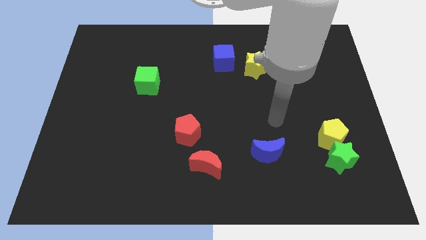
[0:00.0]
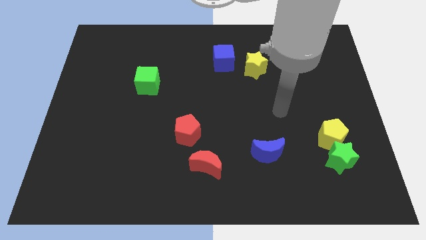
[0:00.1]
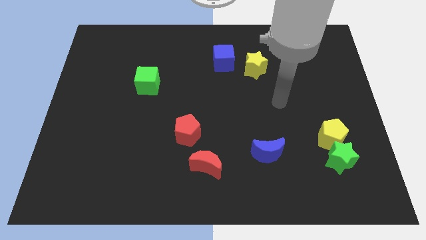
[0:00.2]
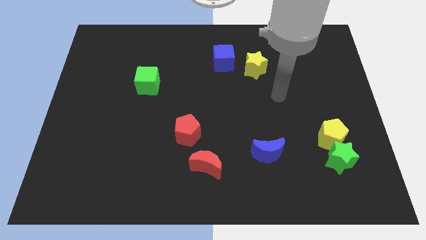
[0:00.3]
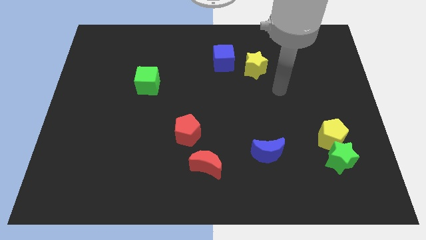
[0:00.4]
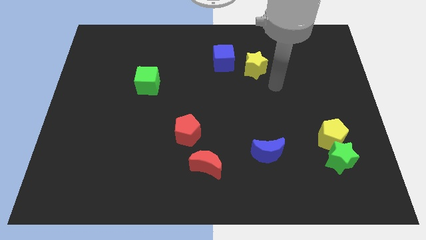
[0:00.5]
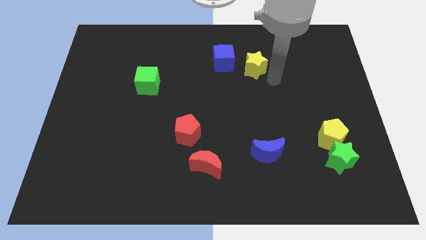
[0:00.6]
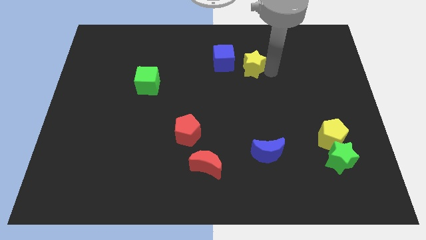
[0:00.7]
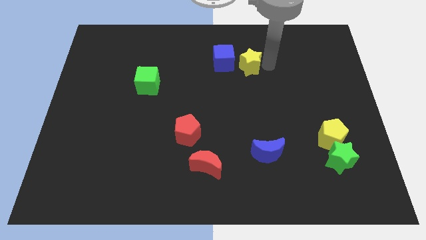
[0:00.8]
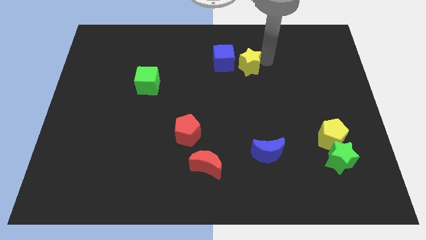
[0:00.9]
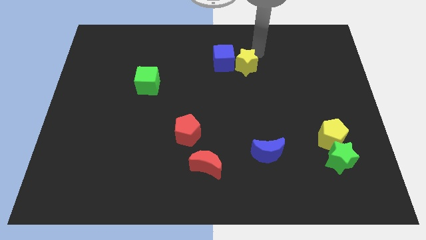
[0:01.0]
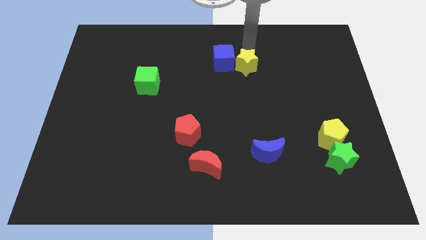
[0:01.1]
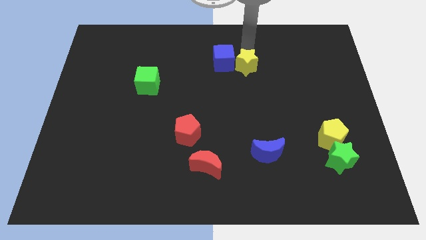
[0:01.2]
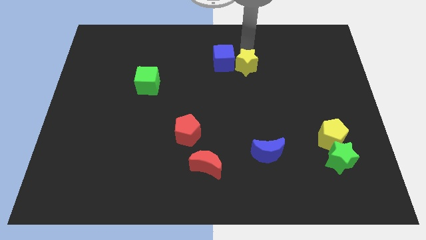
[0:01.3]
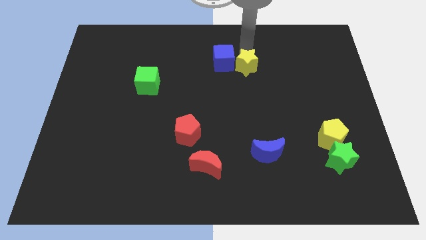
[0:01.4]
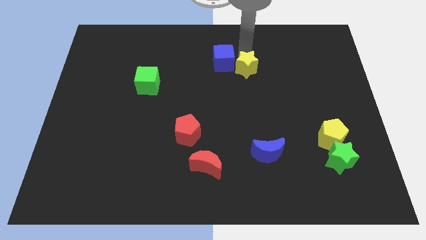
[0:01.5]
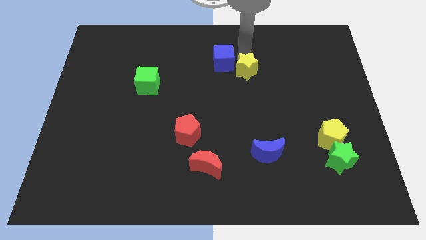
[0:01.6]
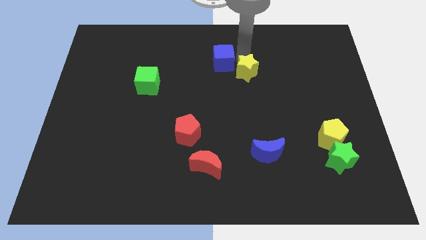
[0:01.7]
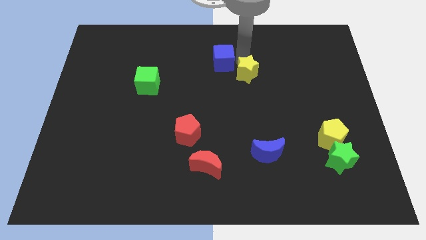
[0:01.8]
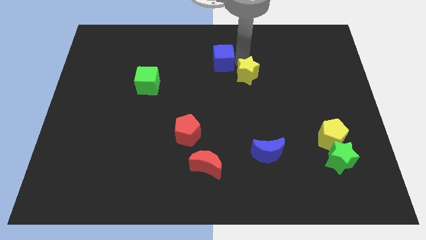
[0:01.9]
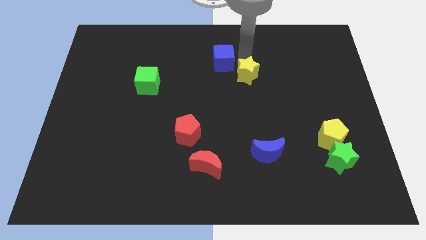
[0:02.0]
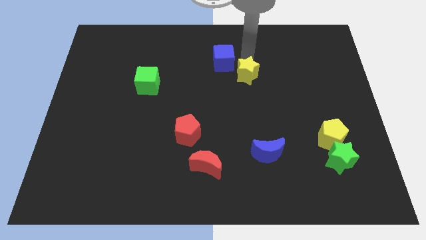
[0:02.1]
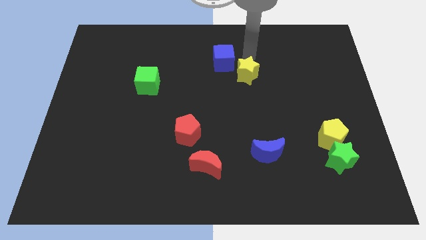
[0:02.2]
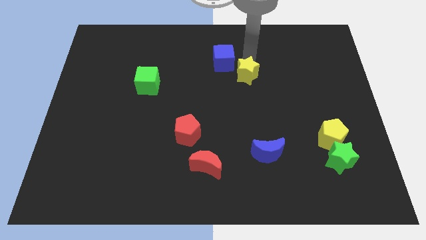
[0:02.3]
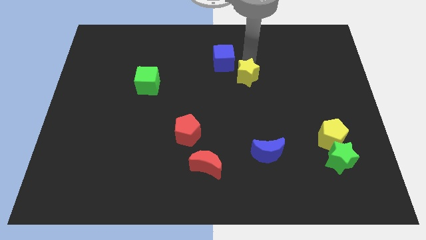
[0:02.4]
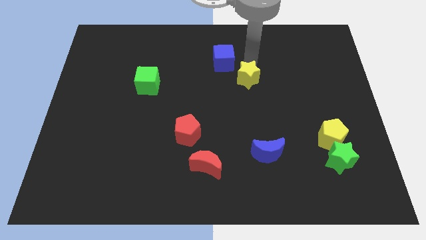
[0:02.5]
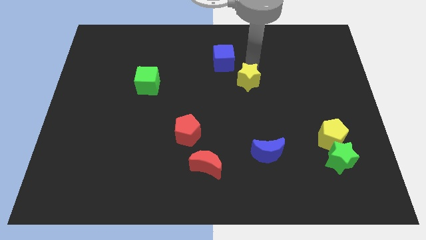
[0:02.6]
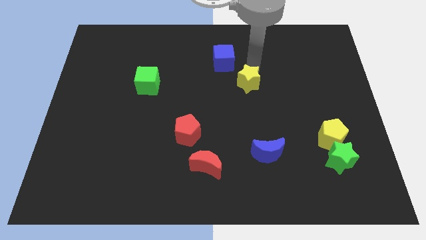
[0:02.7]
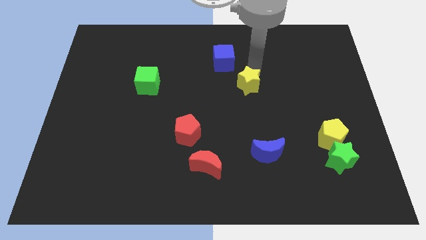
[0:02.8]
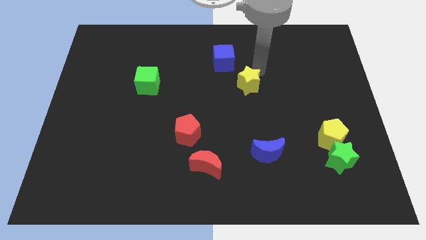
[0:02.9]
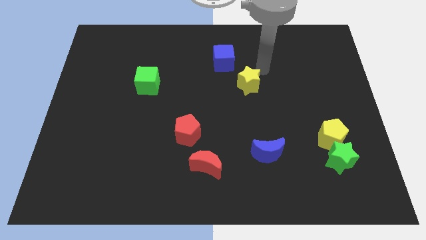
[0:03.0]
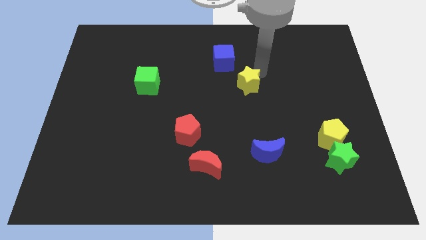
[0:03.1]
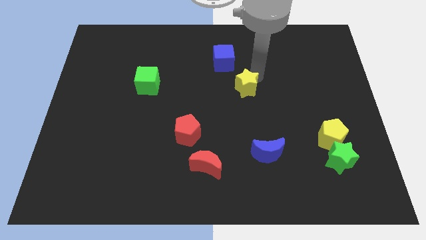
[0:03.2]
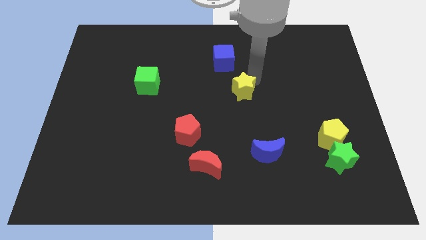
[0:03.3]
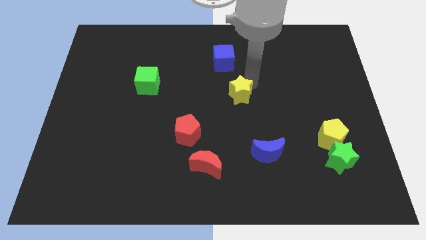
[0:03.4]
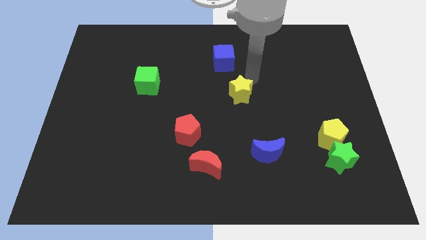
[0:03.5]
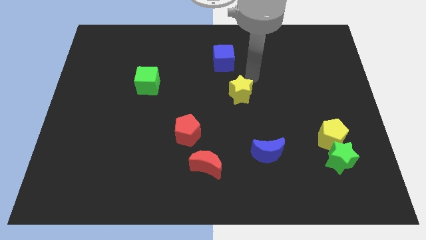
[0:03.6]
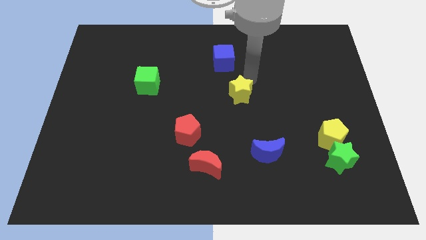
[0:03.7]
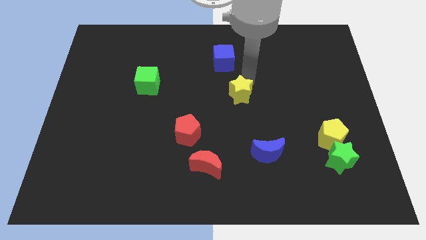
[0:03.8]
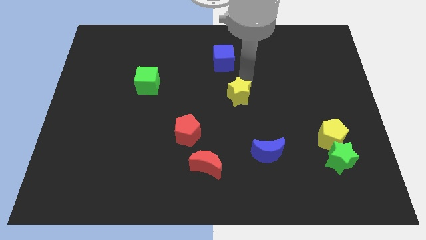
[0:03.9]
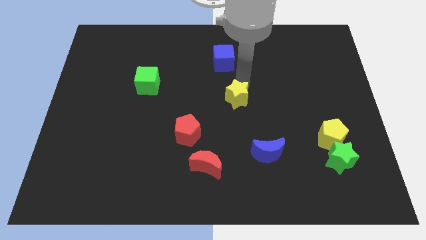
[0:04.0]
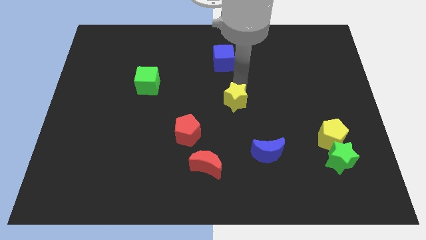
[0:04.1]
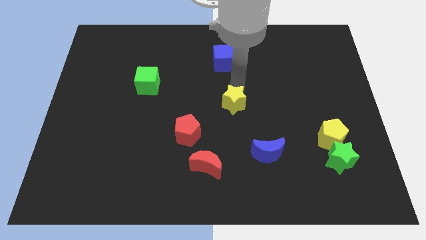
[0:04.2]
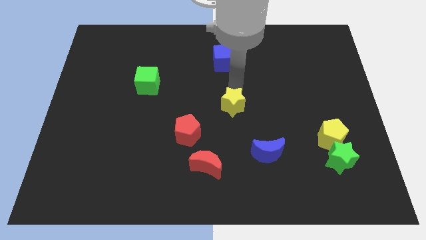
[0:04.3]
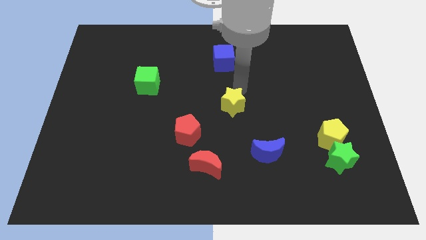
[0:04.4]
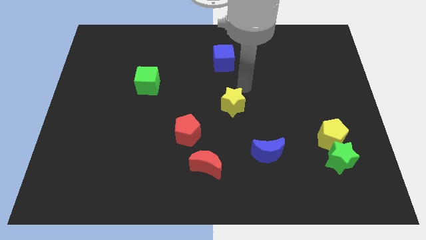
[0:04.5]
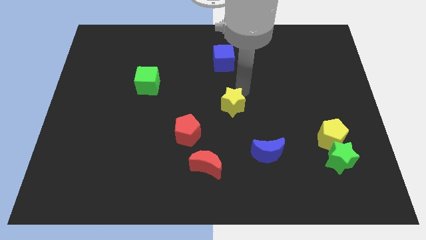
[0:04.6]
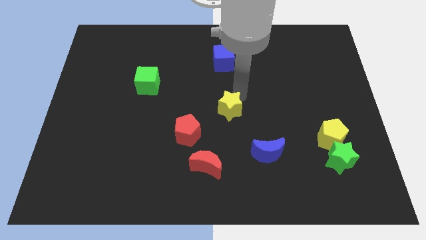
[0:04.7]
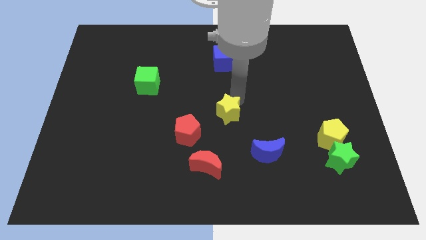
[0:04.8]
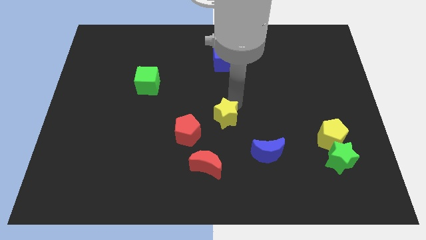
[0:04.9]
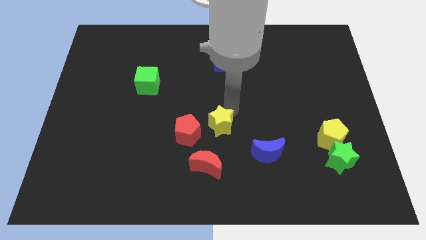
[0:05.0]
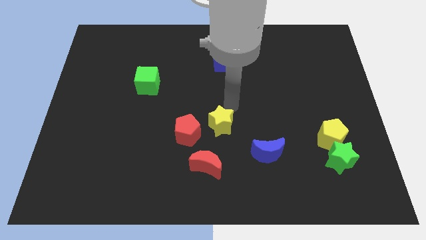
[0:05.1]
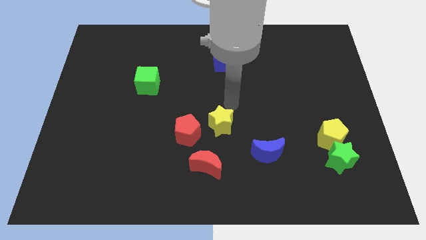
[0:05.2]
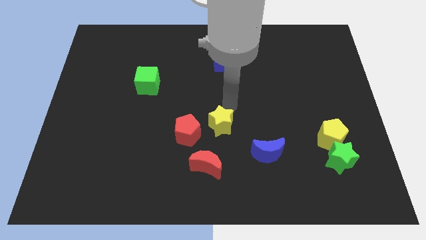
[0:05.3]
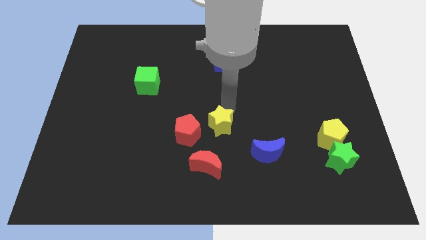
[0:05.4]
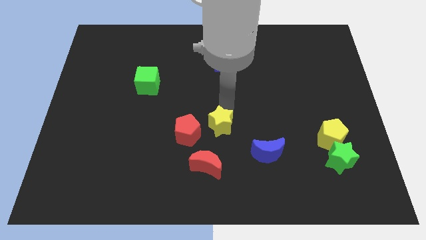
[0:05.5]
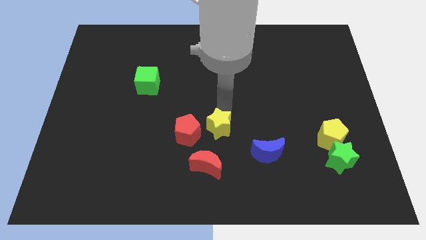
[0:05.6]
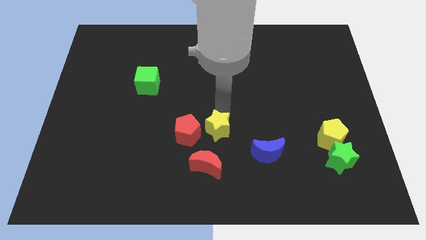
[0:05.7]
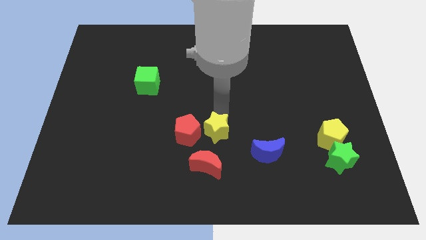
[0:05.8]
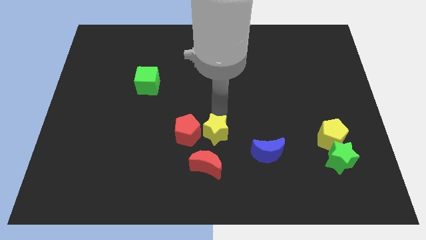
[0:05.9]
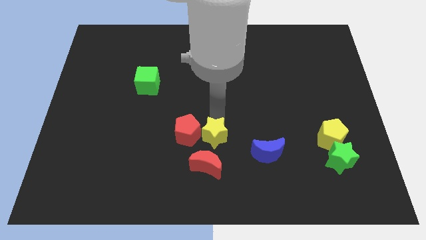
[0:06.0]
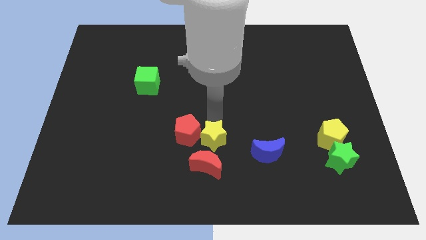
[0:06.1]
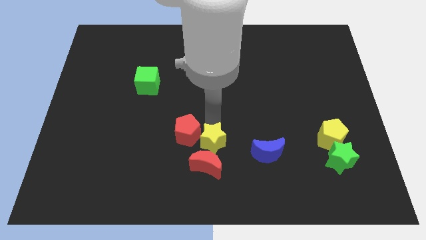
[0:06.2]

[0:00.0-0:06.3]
slide the yellow star next to the red moon

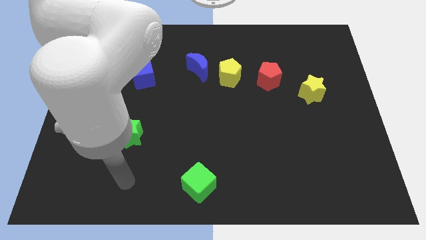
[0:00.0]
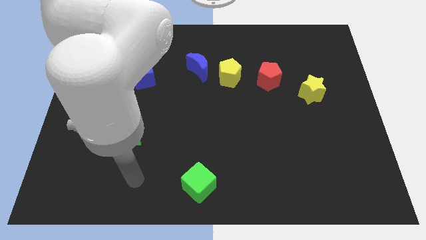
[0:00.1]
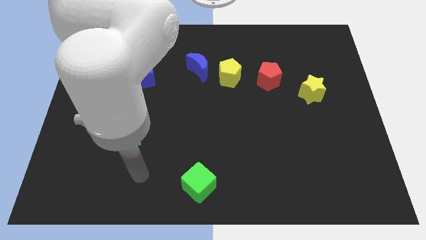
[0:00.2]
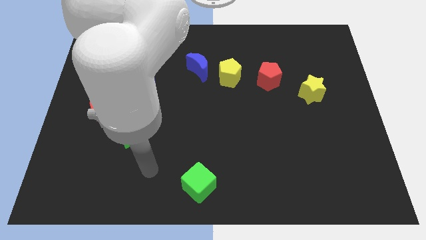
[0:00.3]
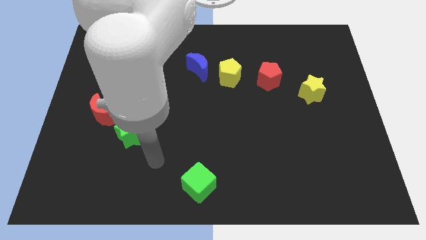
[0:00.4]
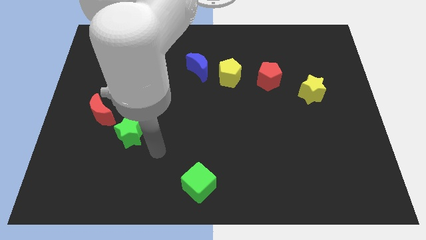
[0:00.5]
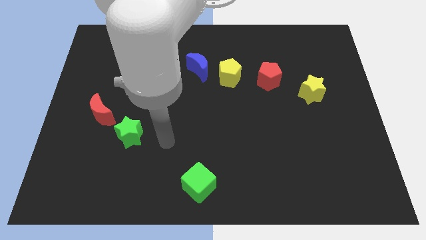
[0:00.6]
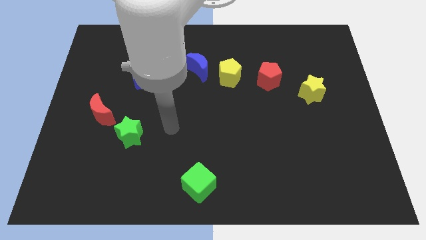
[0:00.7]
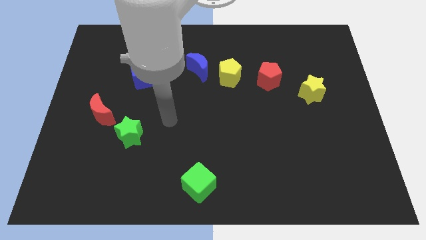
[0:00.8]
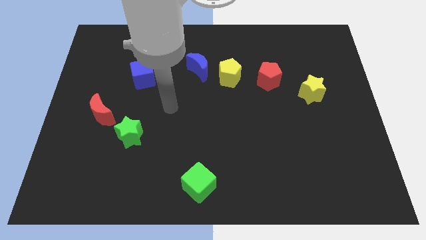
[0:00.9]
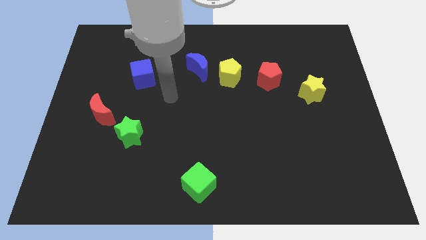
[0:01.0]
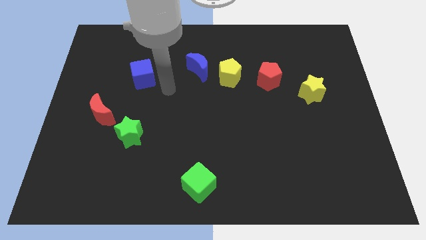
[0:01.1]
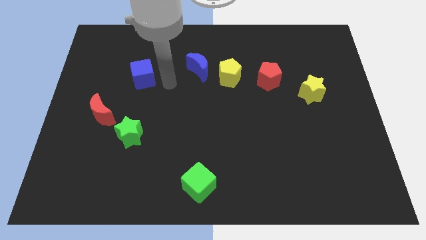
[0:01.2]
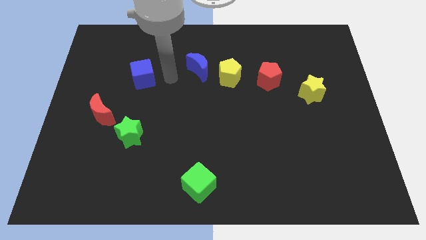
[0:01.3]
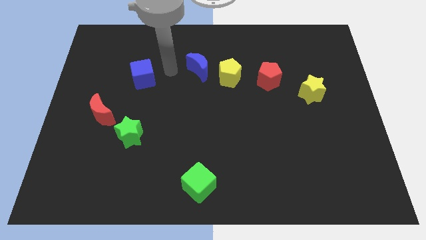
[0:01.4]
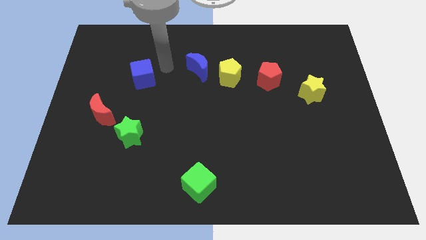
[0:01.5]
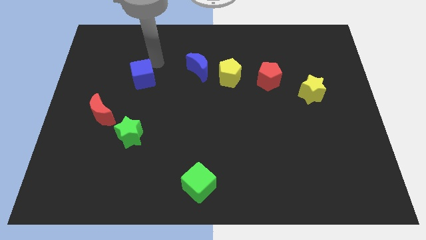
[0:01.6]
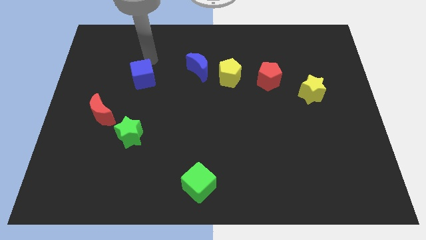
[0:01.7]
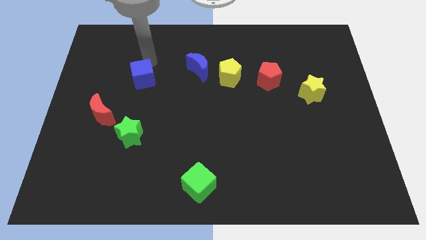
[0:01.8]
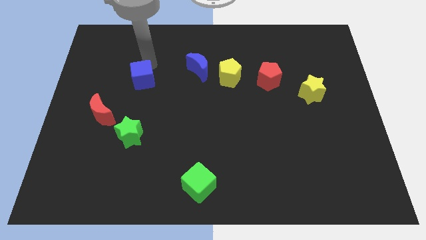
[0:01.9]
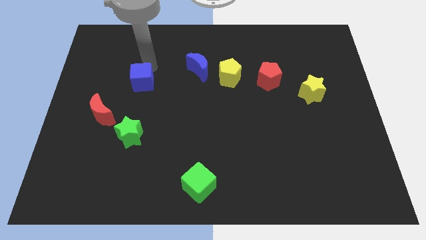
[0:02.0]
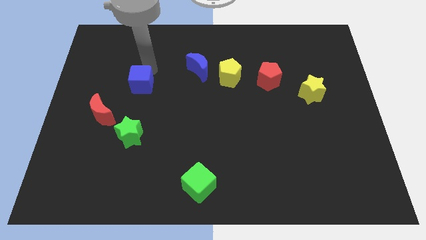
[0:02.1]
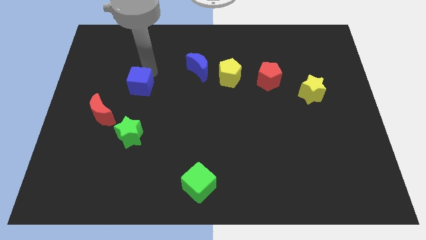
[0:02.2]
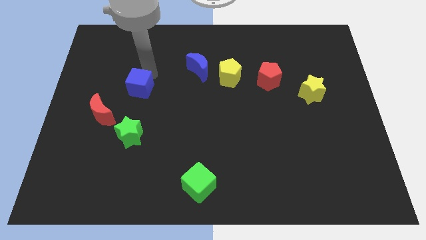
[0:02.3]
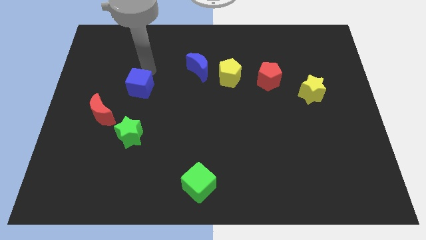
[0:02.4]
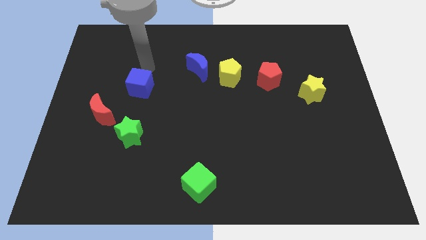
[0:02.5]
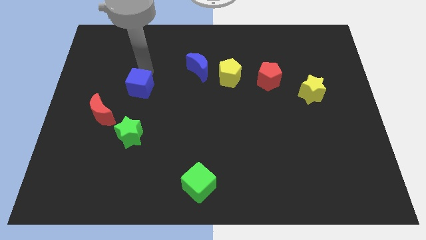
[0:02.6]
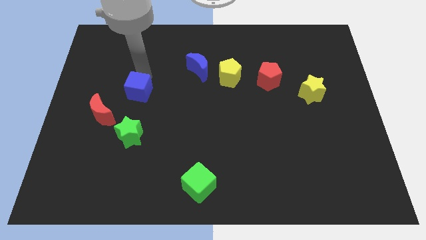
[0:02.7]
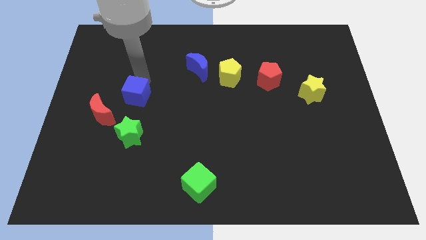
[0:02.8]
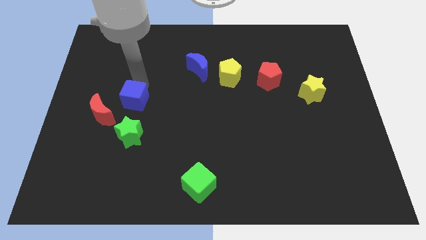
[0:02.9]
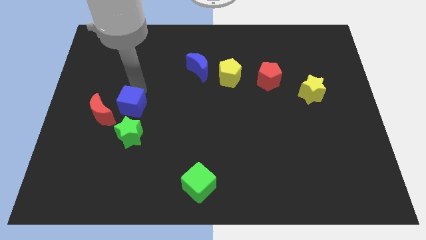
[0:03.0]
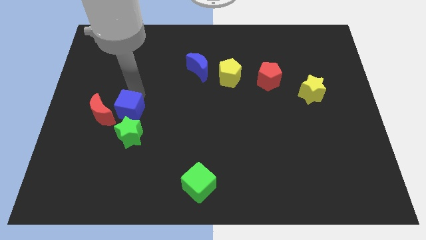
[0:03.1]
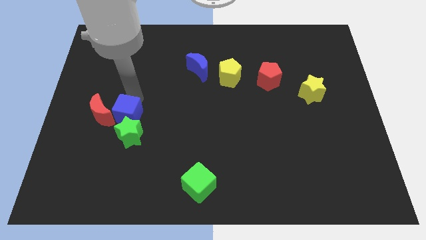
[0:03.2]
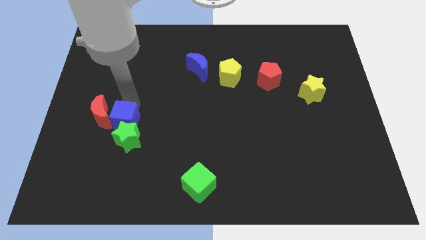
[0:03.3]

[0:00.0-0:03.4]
put the blue cube towards the green star
